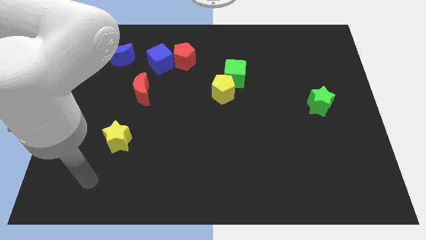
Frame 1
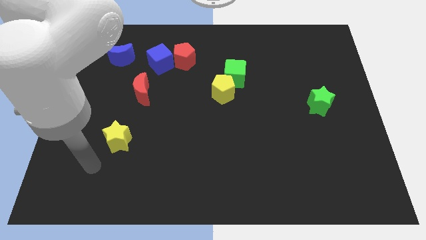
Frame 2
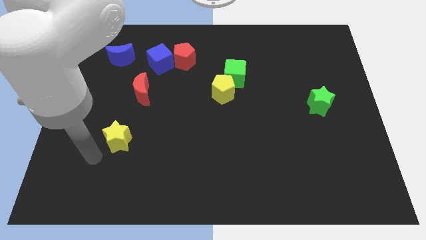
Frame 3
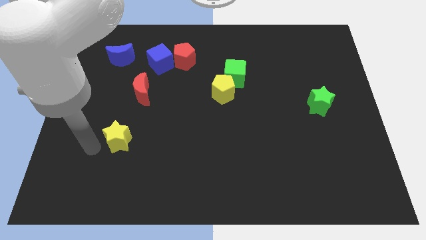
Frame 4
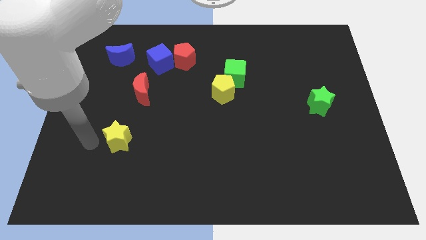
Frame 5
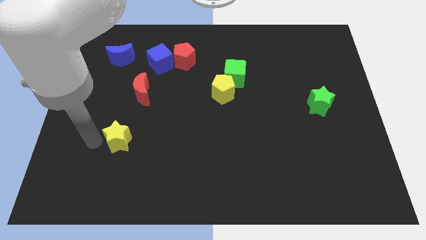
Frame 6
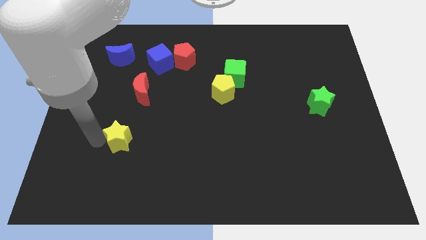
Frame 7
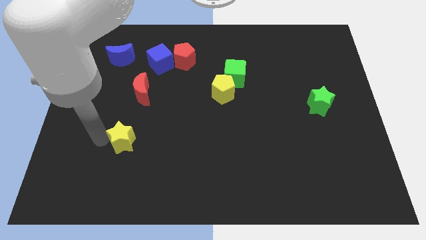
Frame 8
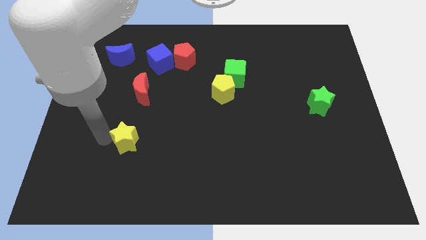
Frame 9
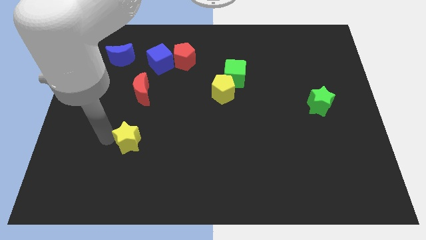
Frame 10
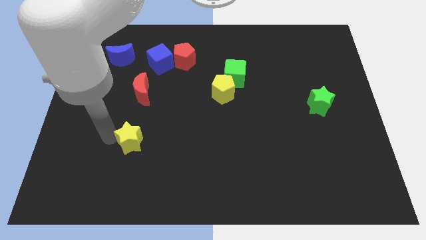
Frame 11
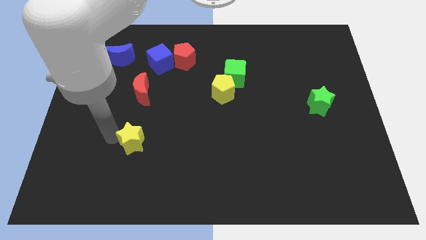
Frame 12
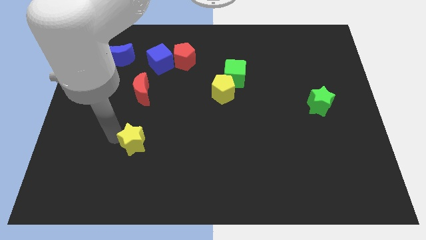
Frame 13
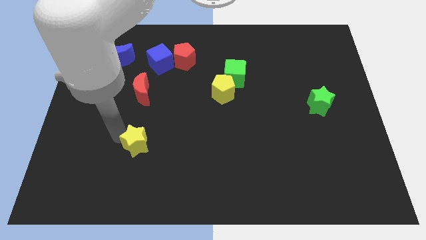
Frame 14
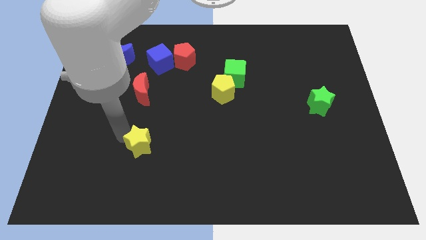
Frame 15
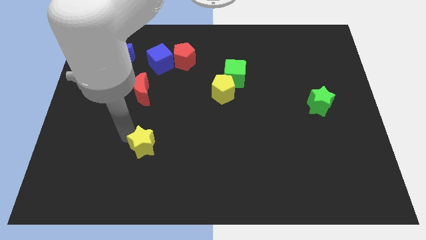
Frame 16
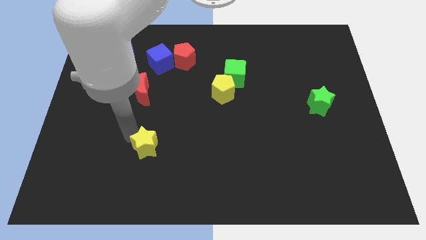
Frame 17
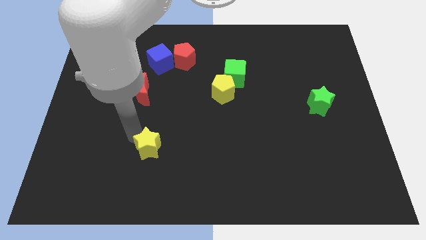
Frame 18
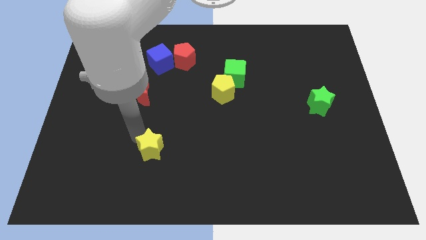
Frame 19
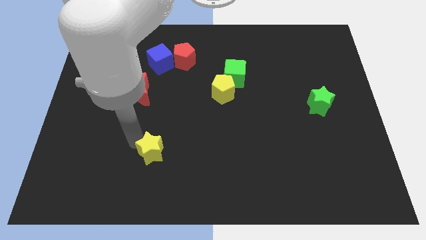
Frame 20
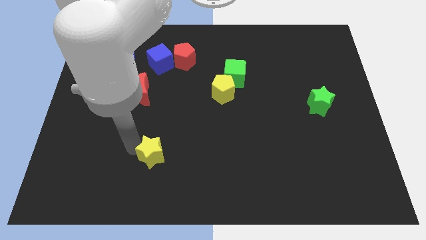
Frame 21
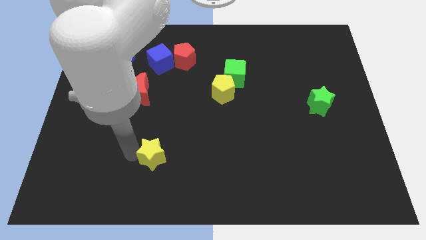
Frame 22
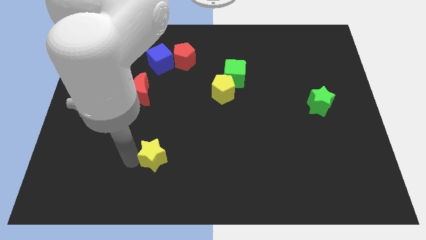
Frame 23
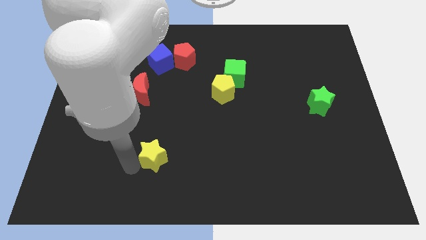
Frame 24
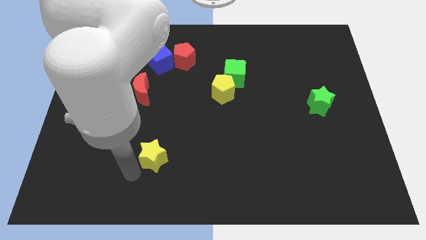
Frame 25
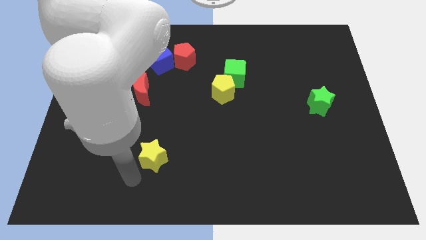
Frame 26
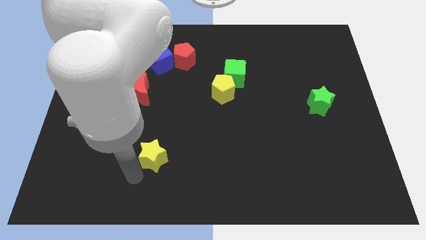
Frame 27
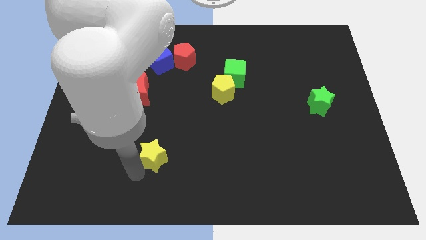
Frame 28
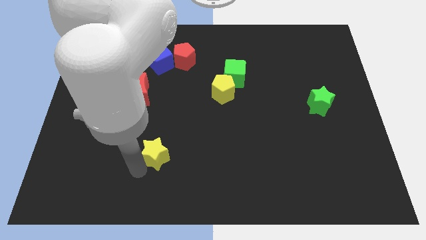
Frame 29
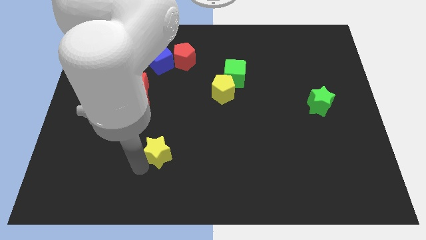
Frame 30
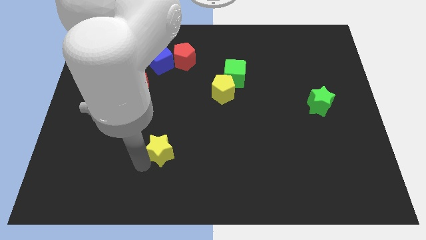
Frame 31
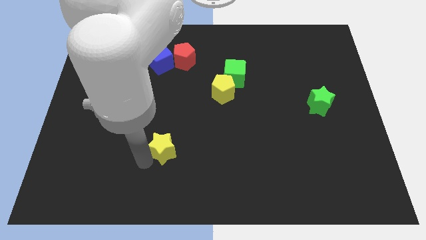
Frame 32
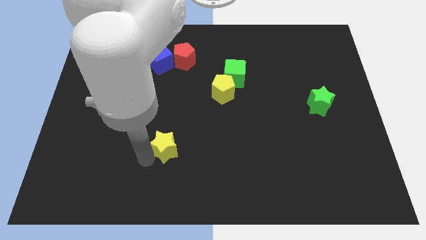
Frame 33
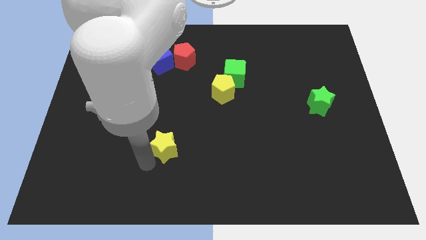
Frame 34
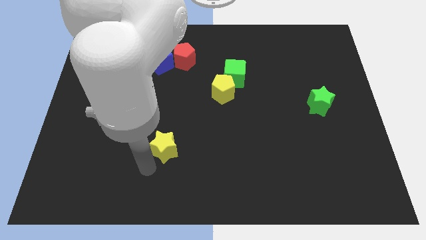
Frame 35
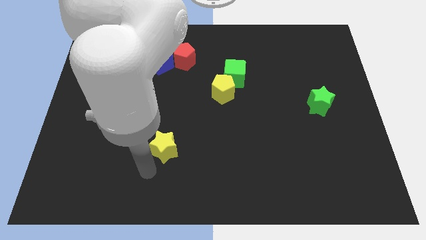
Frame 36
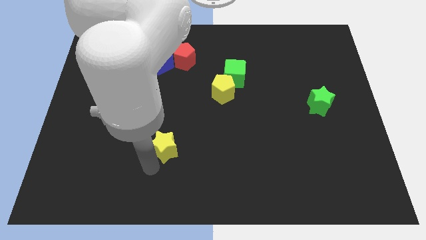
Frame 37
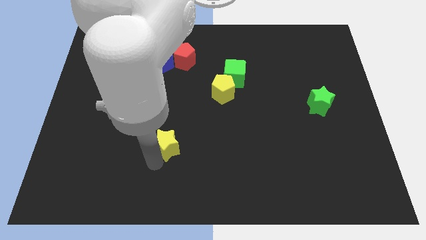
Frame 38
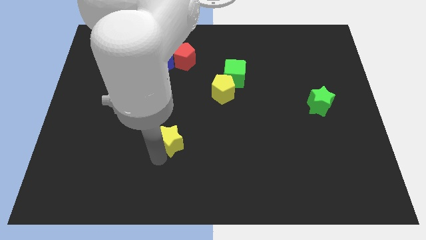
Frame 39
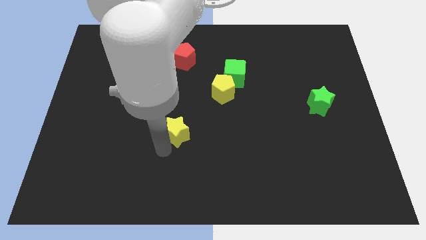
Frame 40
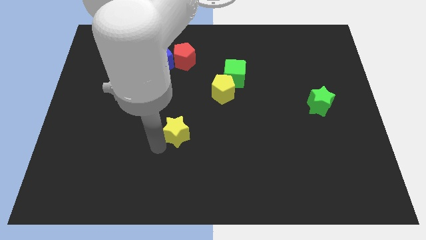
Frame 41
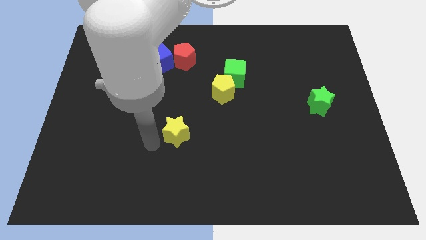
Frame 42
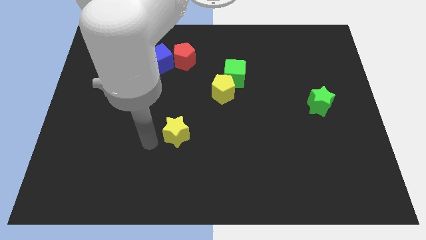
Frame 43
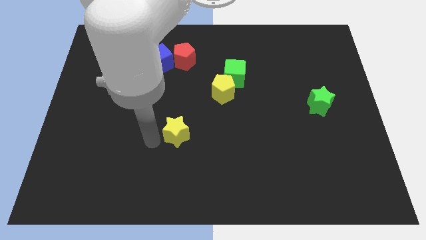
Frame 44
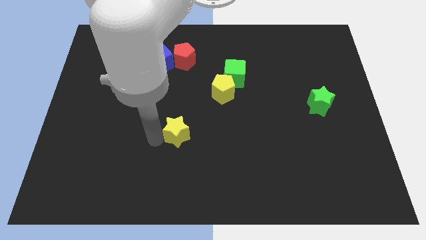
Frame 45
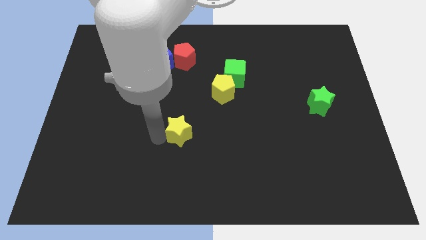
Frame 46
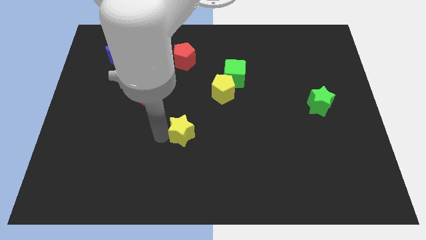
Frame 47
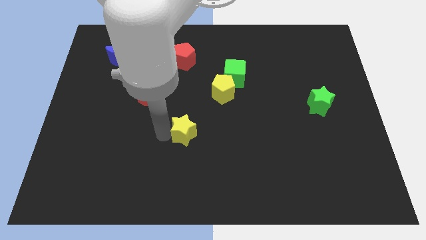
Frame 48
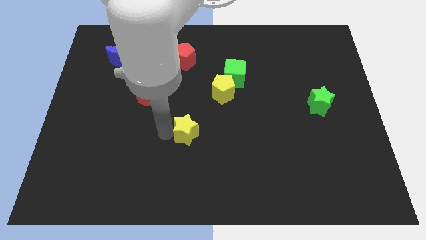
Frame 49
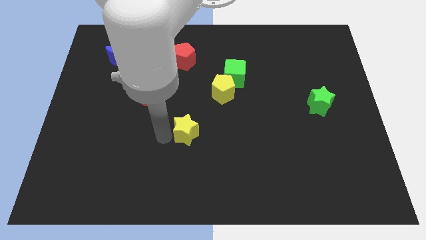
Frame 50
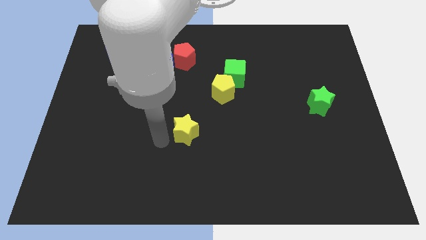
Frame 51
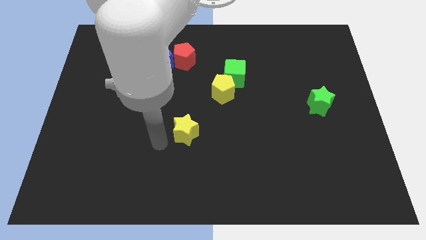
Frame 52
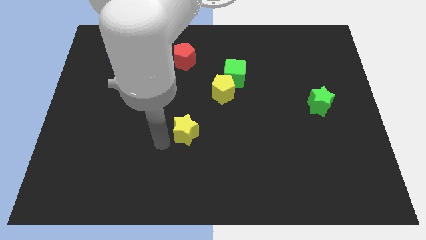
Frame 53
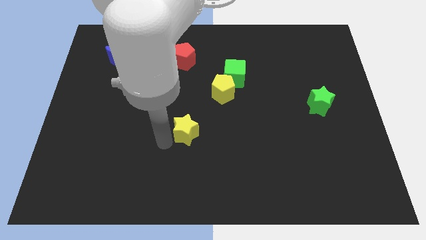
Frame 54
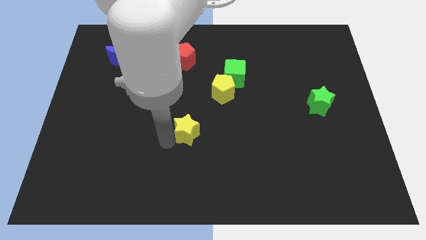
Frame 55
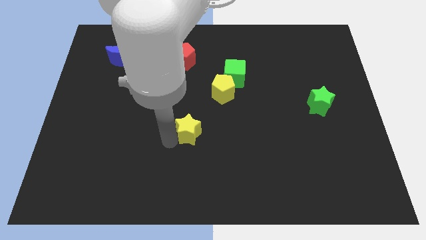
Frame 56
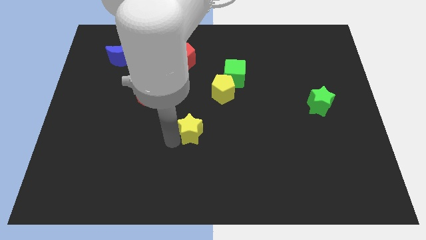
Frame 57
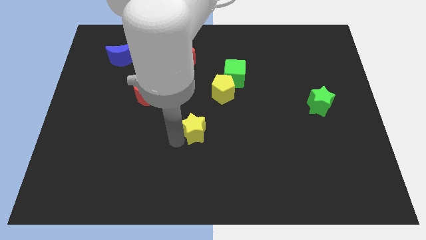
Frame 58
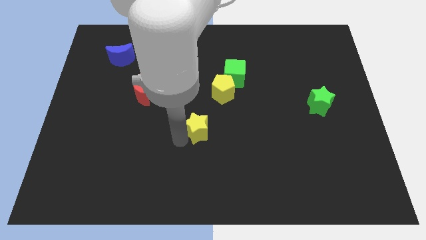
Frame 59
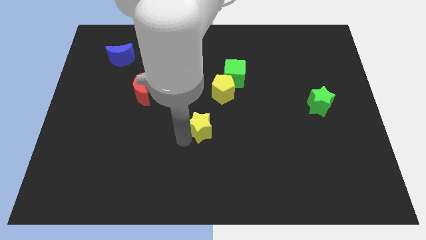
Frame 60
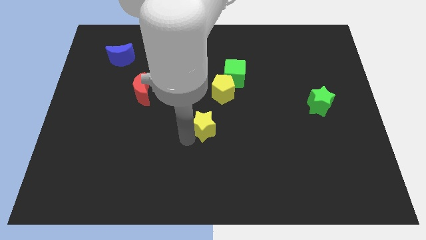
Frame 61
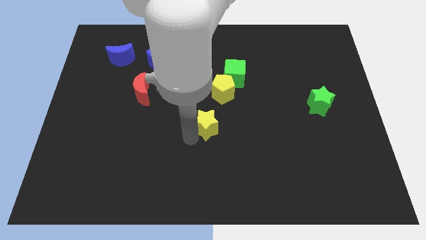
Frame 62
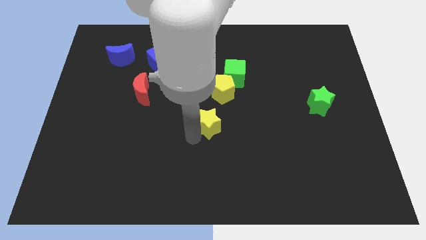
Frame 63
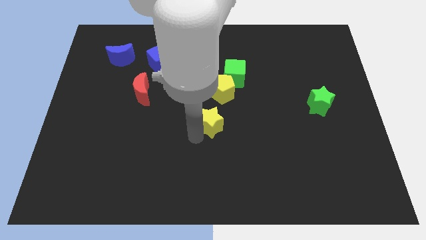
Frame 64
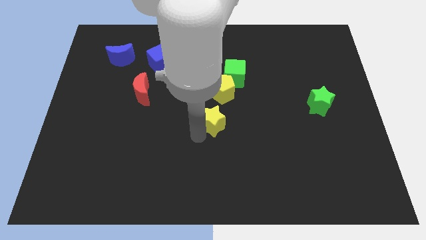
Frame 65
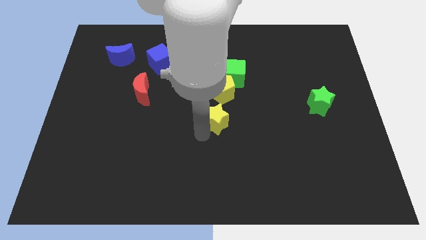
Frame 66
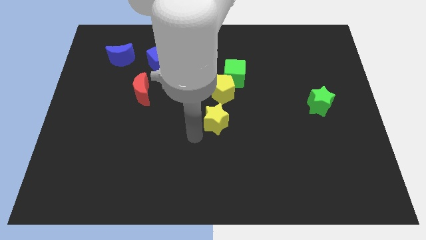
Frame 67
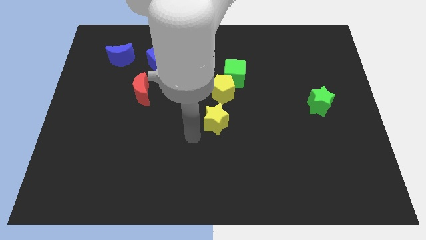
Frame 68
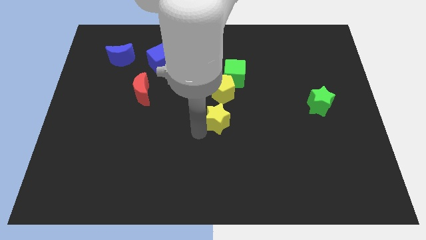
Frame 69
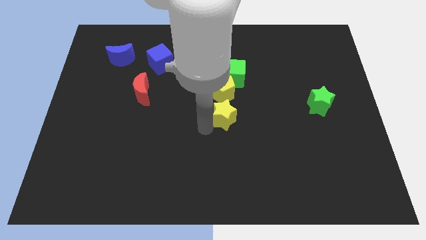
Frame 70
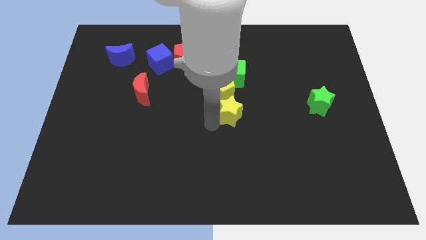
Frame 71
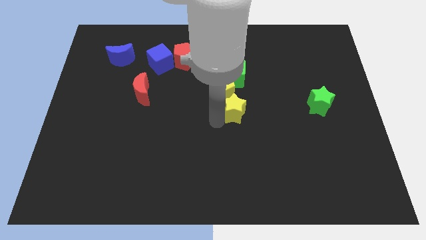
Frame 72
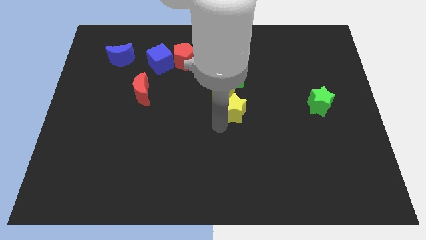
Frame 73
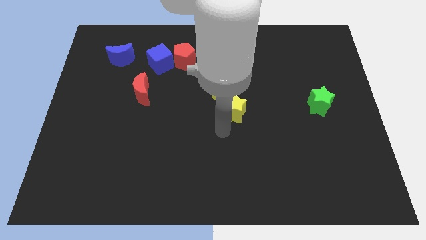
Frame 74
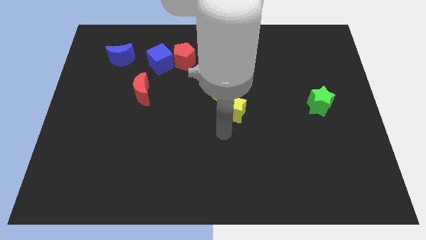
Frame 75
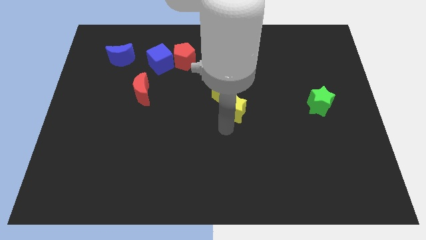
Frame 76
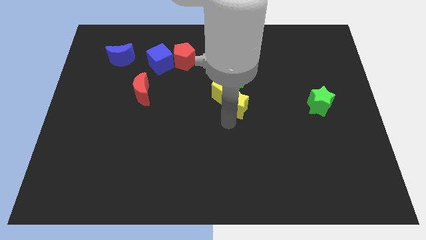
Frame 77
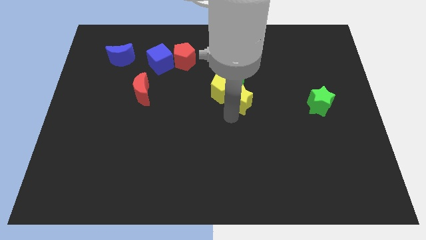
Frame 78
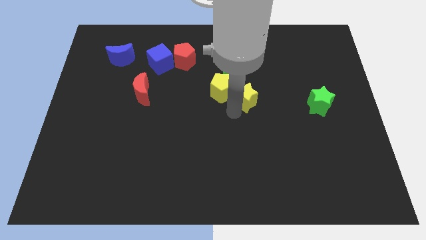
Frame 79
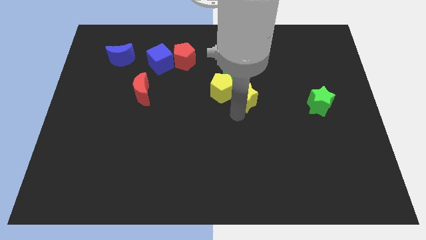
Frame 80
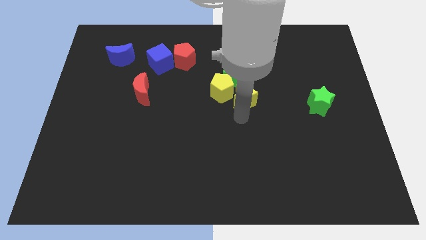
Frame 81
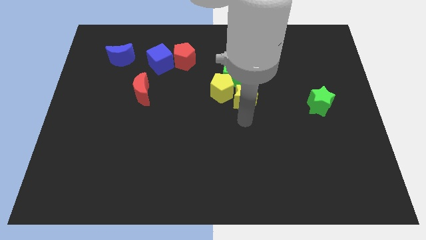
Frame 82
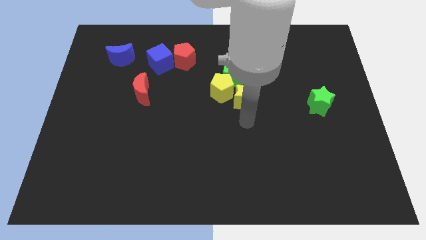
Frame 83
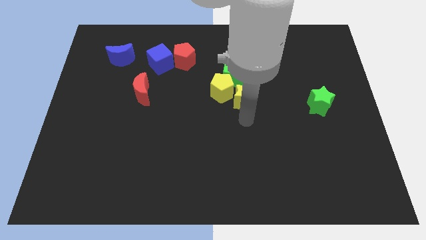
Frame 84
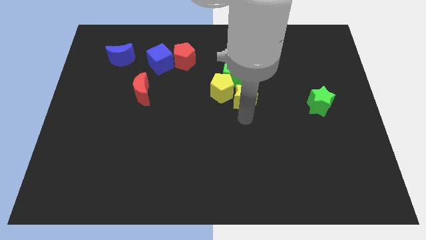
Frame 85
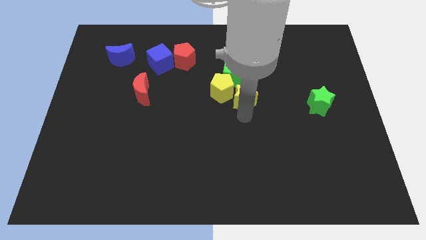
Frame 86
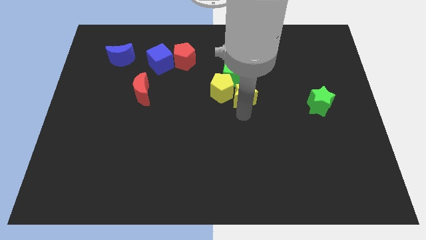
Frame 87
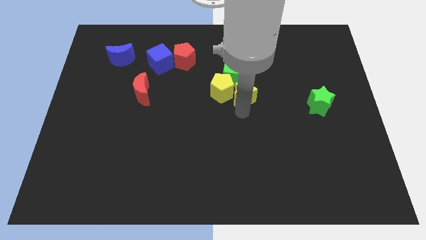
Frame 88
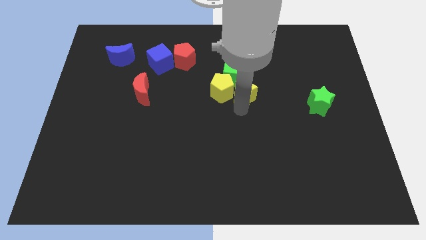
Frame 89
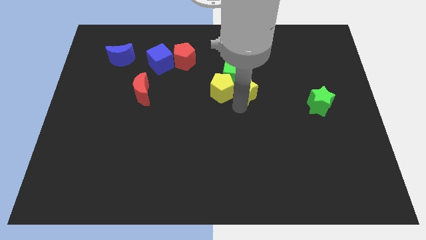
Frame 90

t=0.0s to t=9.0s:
put the yellow star towards the green cube
